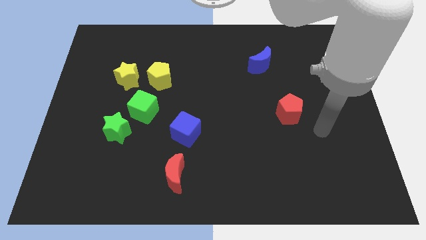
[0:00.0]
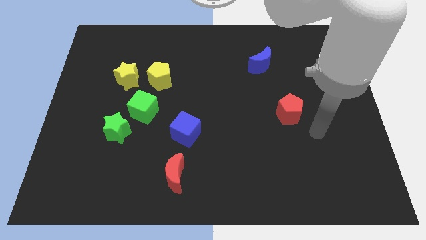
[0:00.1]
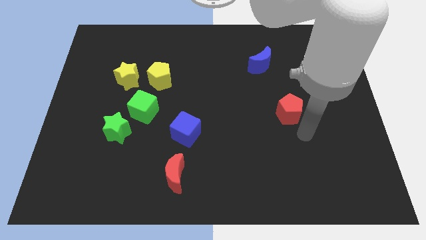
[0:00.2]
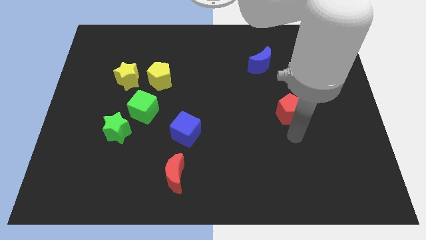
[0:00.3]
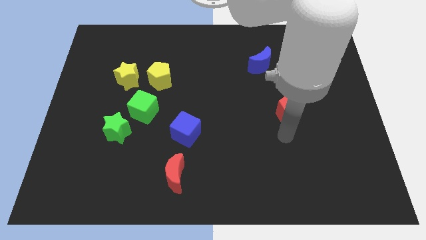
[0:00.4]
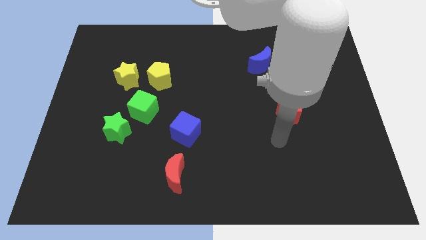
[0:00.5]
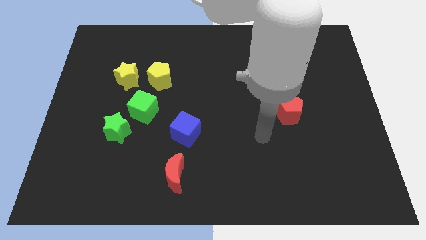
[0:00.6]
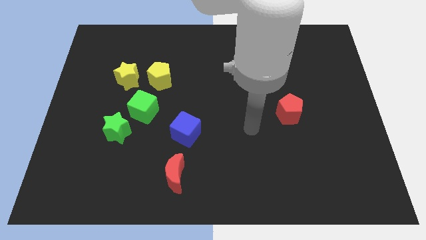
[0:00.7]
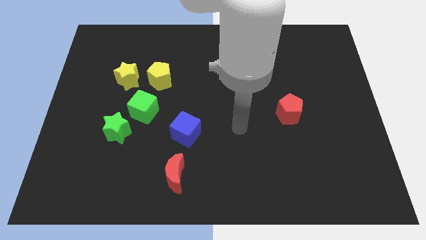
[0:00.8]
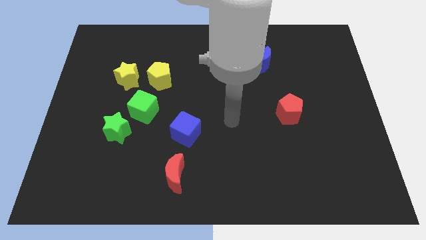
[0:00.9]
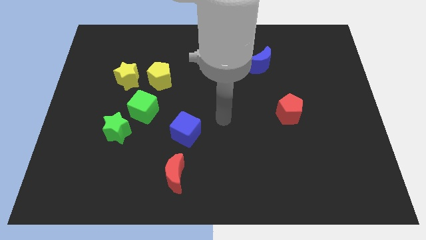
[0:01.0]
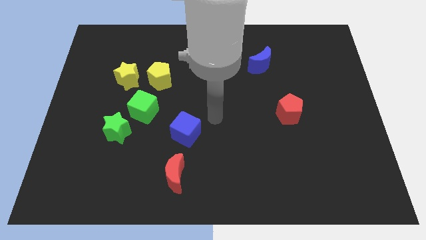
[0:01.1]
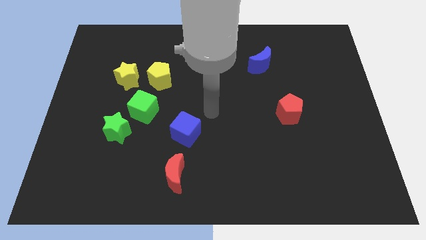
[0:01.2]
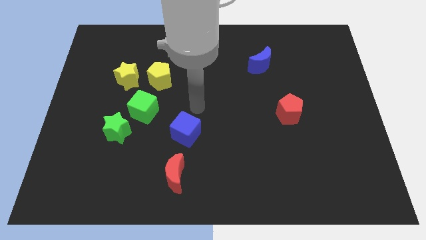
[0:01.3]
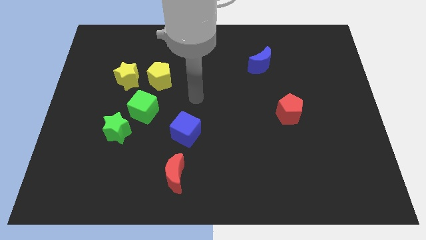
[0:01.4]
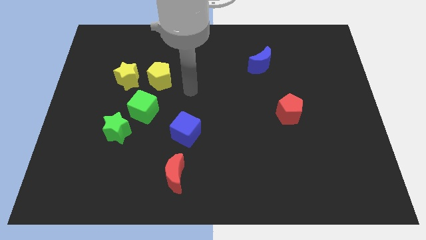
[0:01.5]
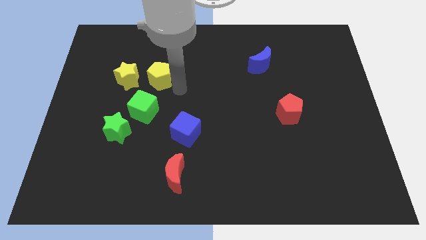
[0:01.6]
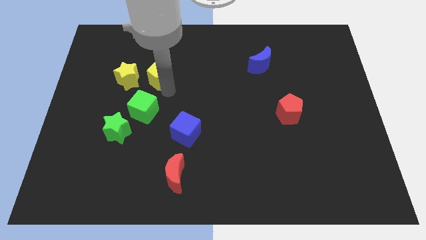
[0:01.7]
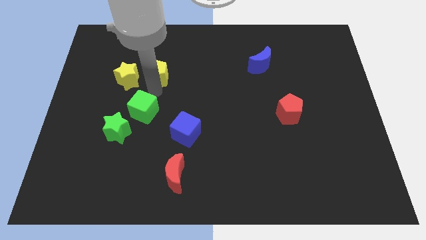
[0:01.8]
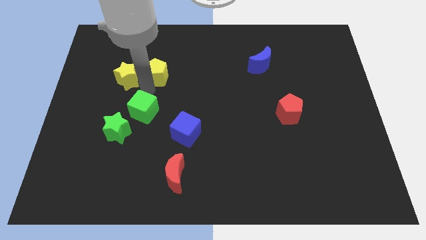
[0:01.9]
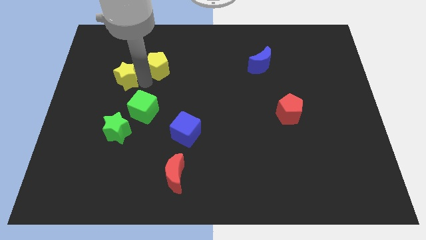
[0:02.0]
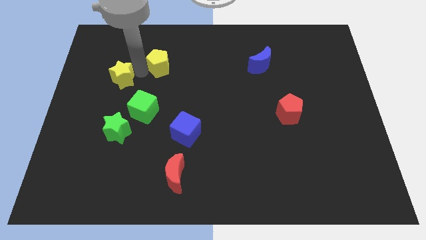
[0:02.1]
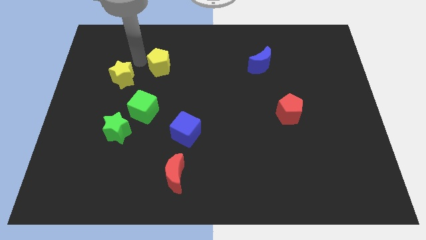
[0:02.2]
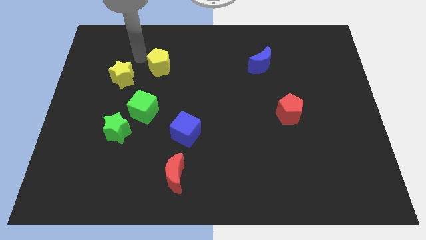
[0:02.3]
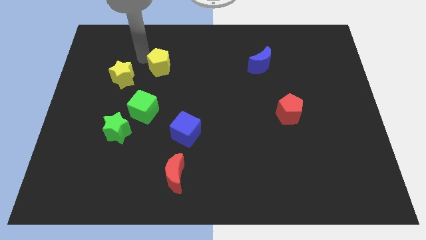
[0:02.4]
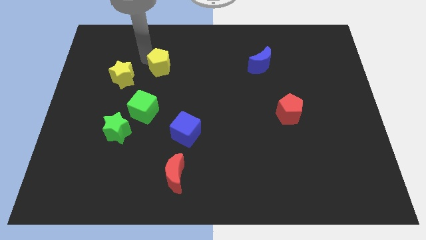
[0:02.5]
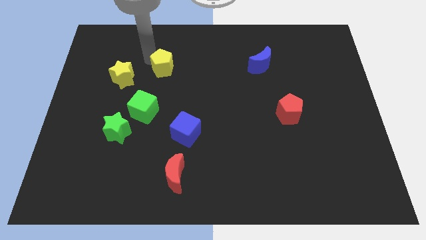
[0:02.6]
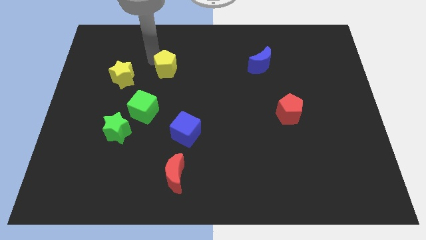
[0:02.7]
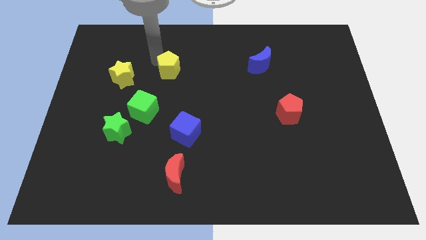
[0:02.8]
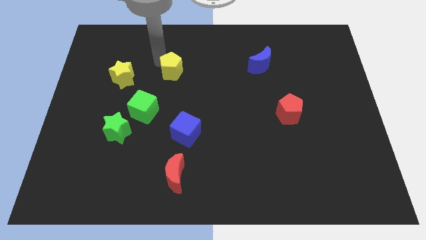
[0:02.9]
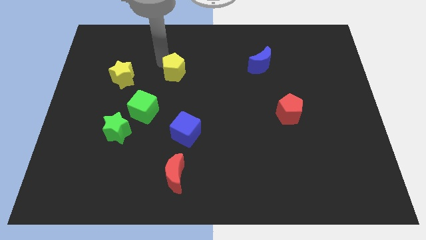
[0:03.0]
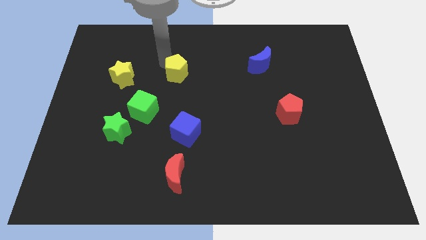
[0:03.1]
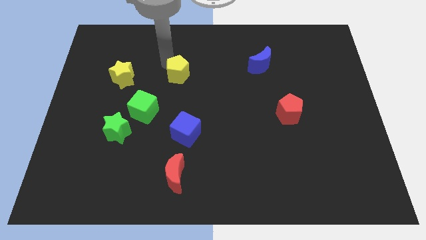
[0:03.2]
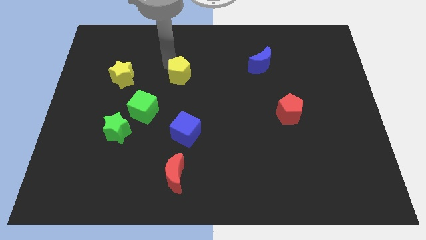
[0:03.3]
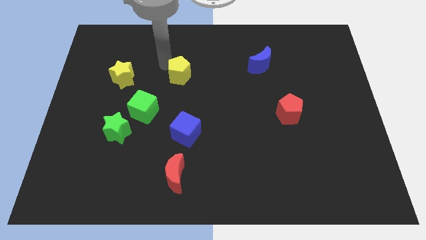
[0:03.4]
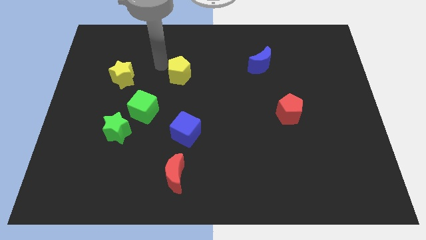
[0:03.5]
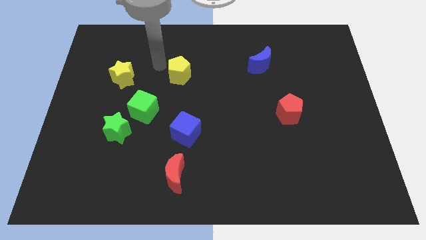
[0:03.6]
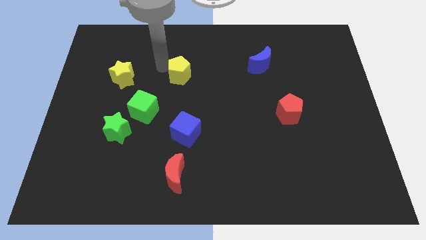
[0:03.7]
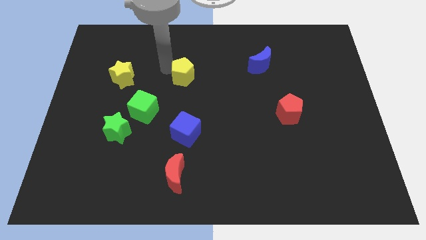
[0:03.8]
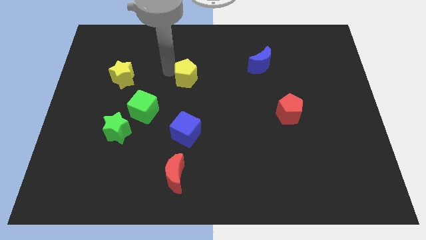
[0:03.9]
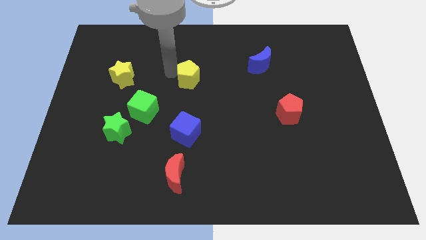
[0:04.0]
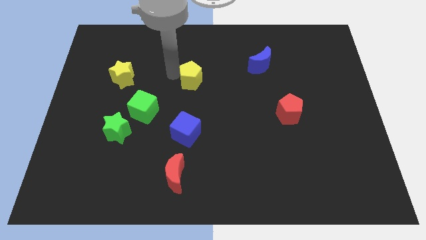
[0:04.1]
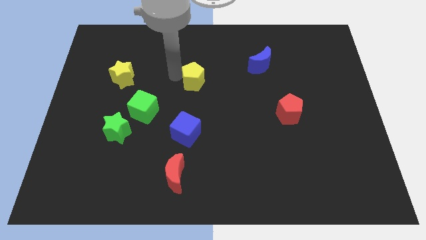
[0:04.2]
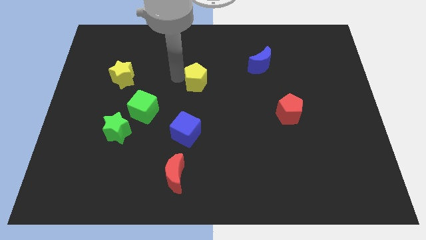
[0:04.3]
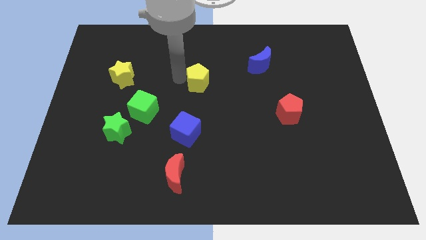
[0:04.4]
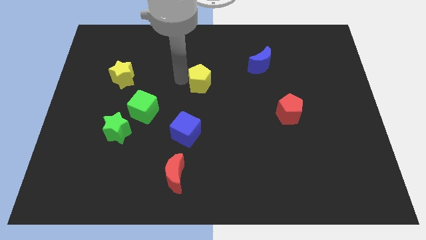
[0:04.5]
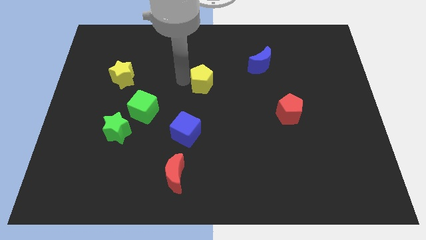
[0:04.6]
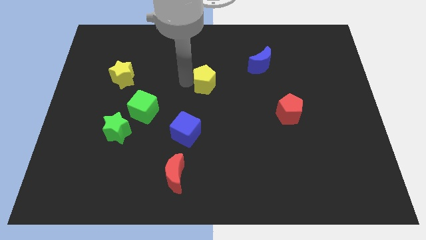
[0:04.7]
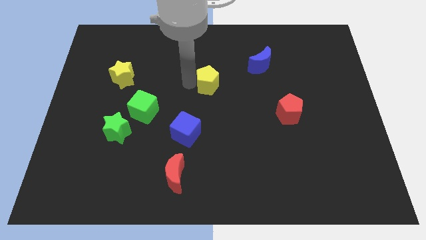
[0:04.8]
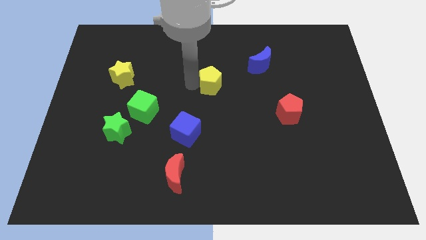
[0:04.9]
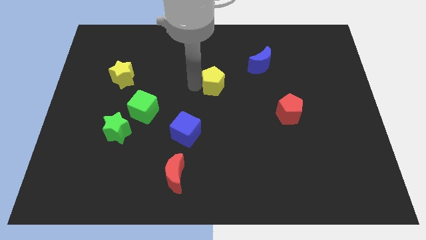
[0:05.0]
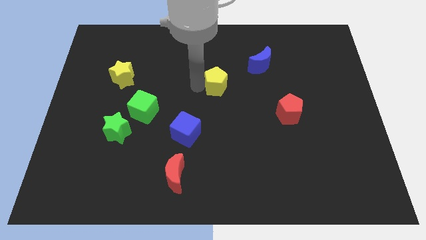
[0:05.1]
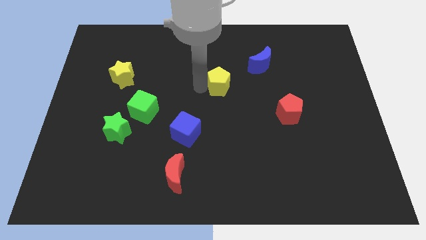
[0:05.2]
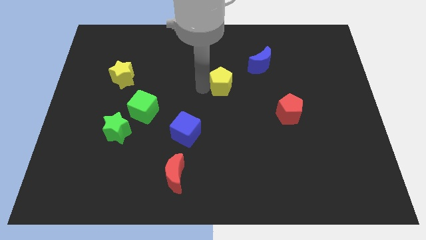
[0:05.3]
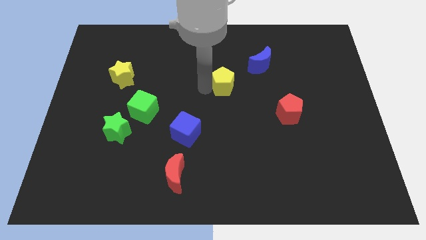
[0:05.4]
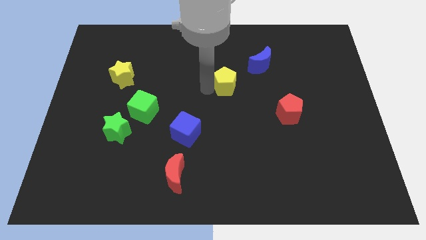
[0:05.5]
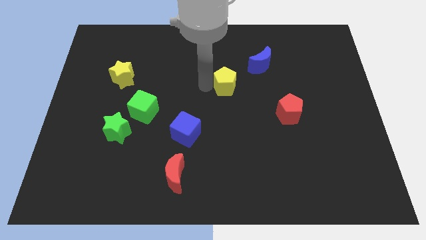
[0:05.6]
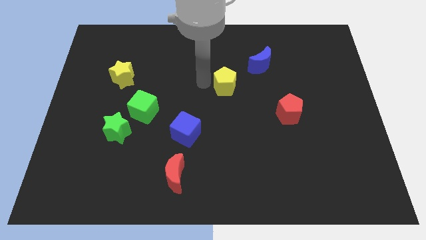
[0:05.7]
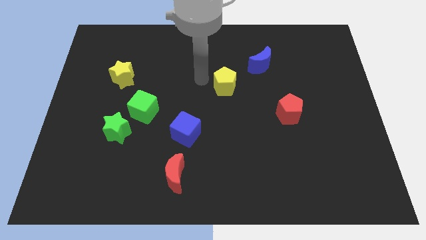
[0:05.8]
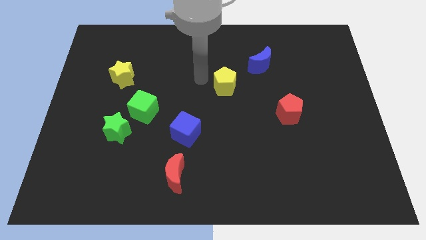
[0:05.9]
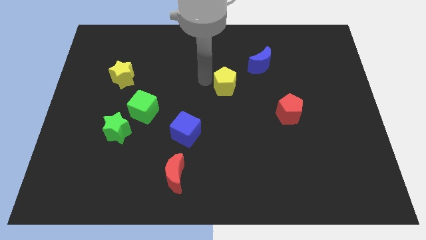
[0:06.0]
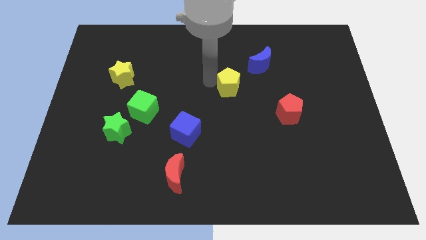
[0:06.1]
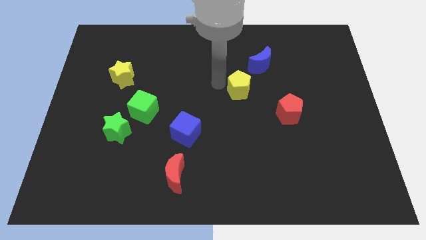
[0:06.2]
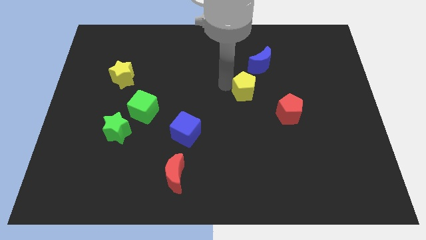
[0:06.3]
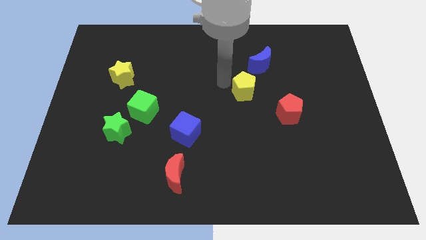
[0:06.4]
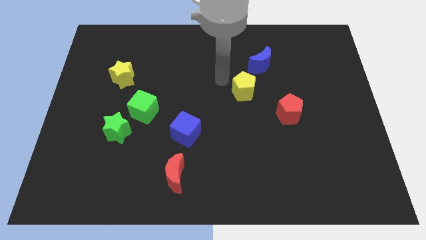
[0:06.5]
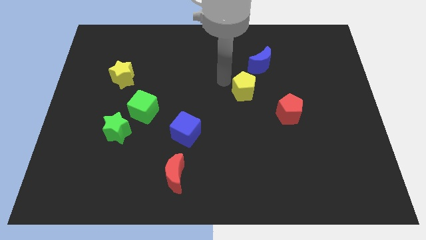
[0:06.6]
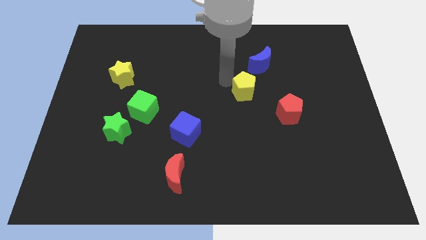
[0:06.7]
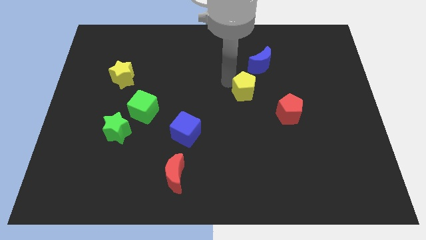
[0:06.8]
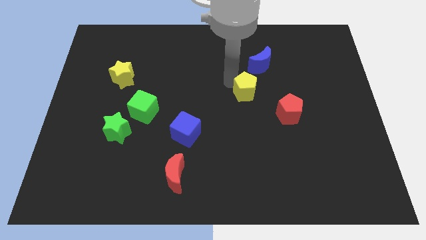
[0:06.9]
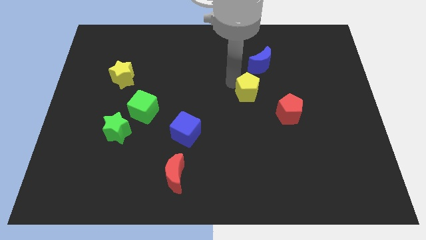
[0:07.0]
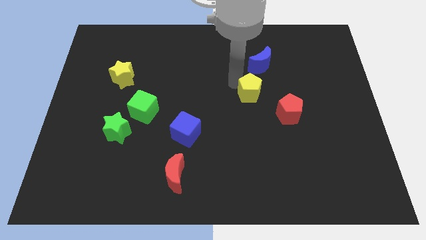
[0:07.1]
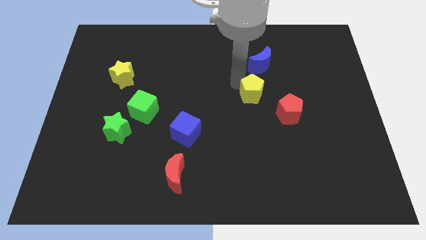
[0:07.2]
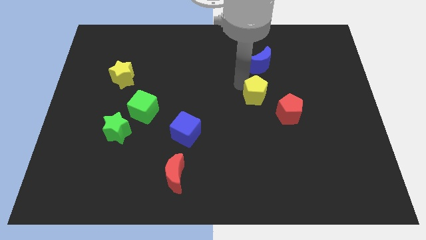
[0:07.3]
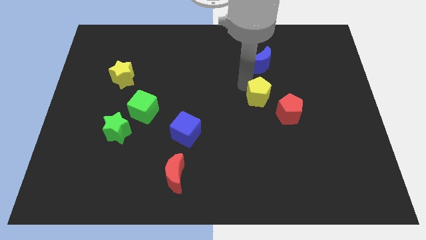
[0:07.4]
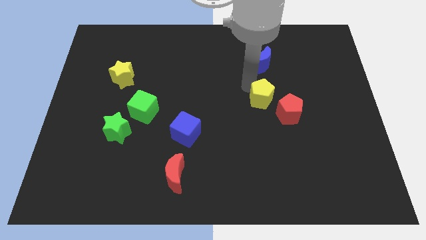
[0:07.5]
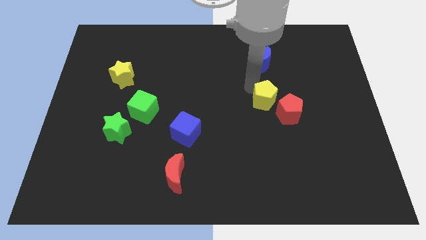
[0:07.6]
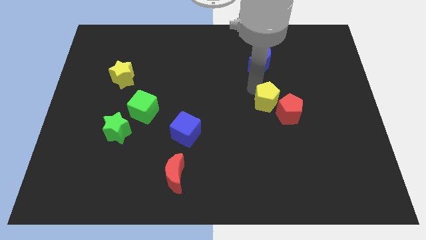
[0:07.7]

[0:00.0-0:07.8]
slide the yellow pentagon towards the red pentagon
